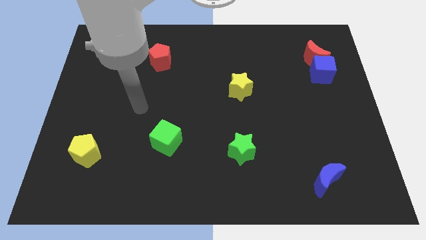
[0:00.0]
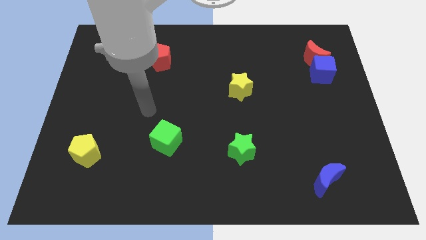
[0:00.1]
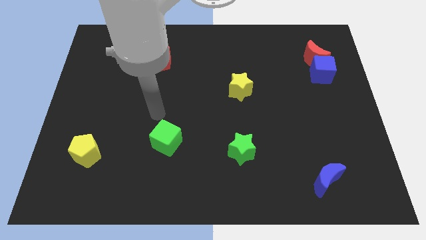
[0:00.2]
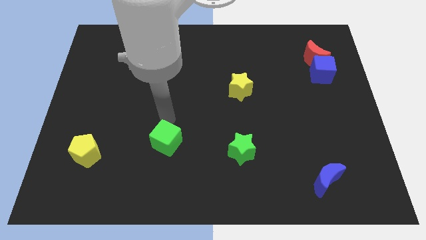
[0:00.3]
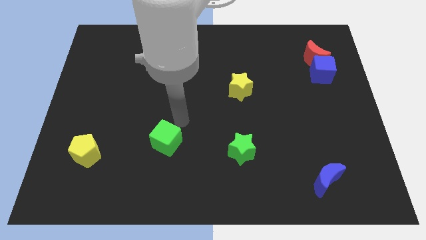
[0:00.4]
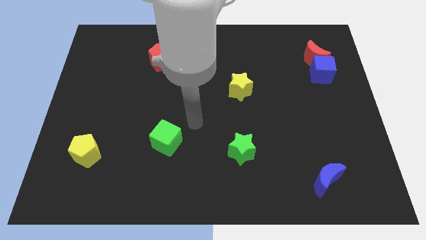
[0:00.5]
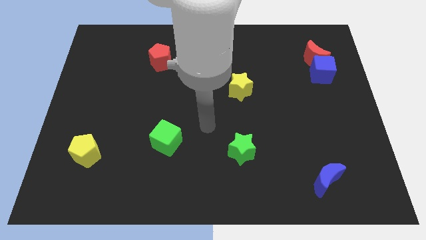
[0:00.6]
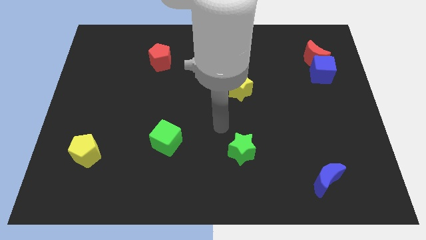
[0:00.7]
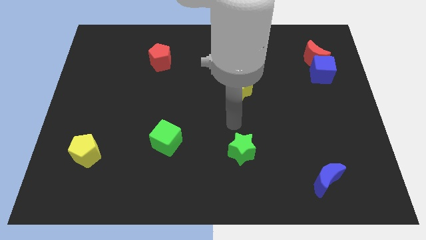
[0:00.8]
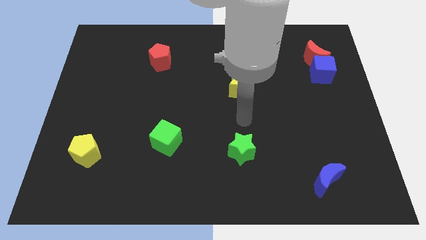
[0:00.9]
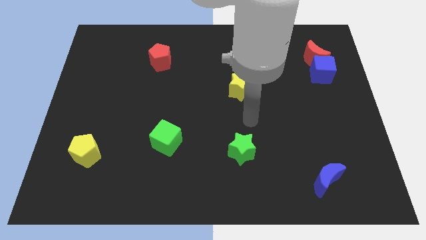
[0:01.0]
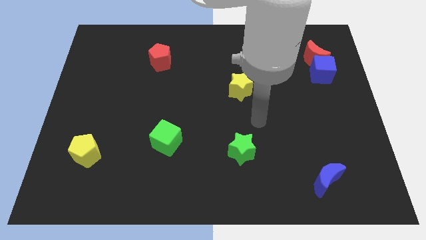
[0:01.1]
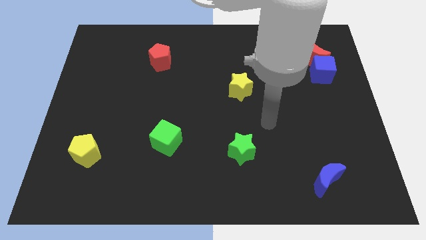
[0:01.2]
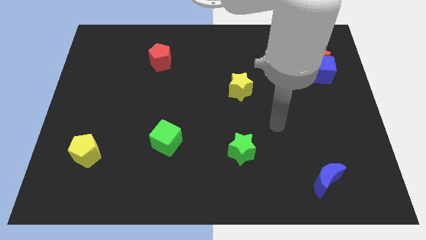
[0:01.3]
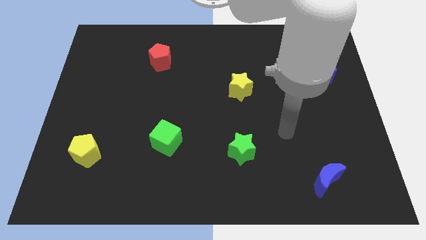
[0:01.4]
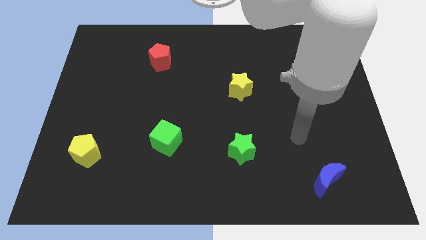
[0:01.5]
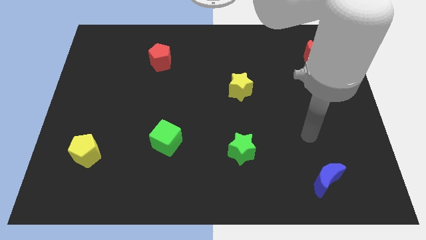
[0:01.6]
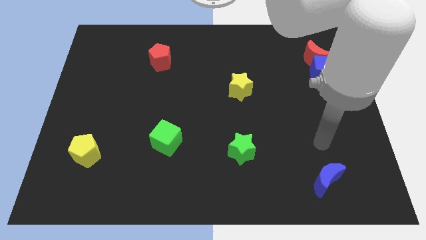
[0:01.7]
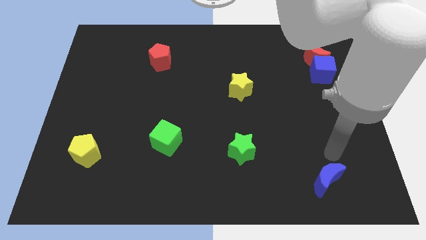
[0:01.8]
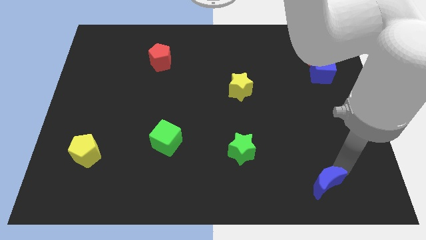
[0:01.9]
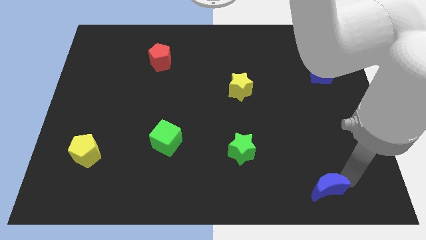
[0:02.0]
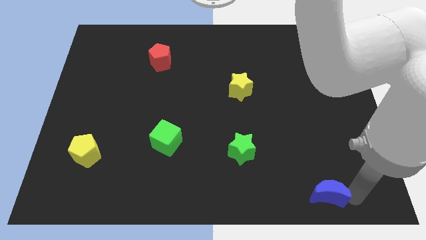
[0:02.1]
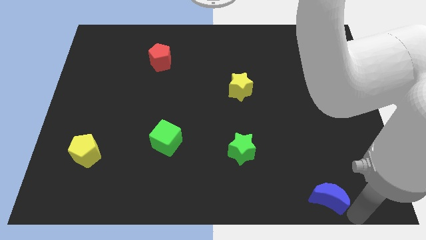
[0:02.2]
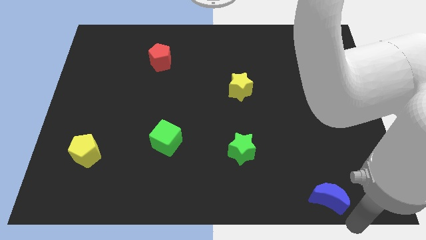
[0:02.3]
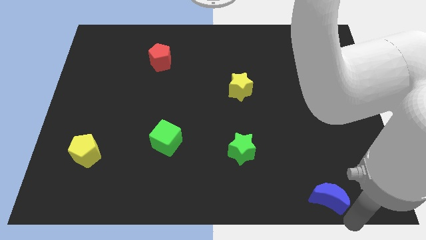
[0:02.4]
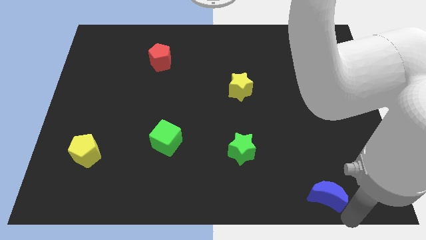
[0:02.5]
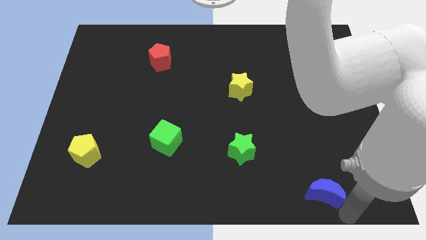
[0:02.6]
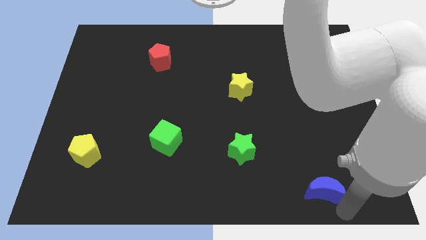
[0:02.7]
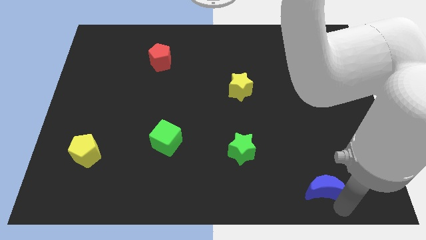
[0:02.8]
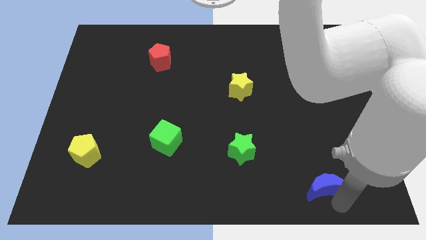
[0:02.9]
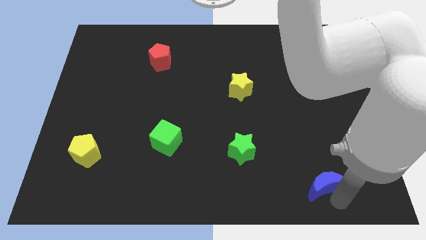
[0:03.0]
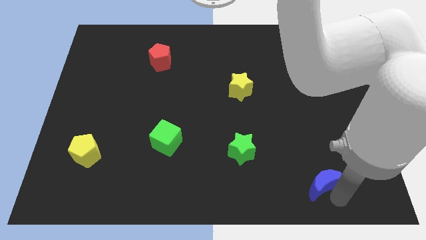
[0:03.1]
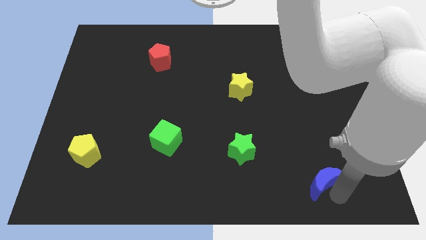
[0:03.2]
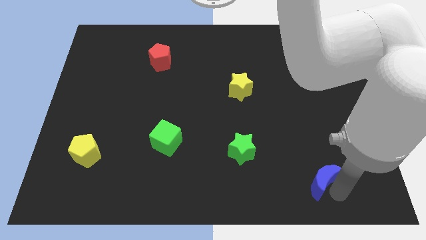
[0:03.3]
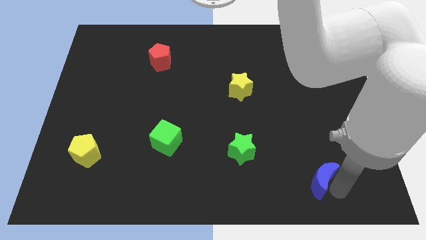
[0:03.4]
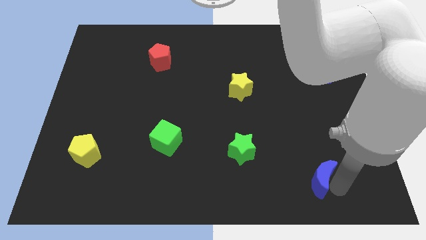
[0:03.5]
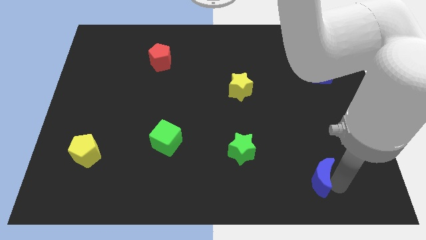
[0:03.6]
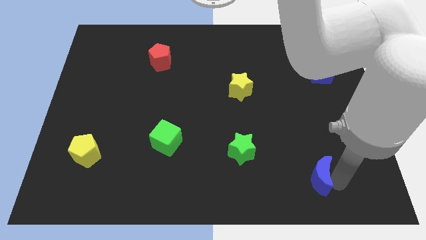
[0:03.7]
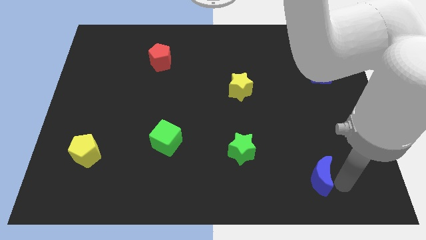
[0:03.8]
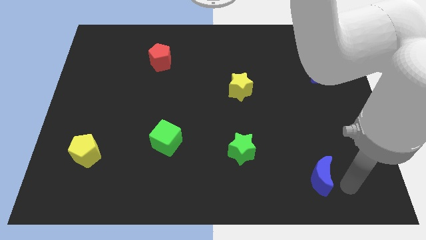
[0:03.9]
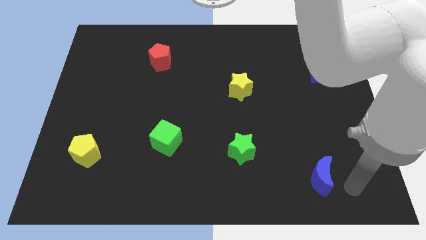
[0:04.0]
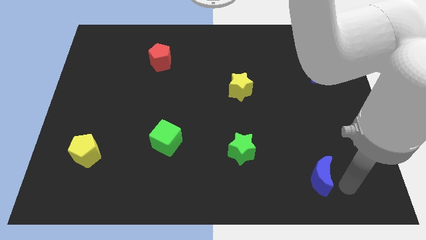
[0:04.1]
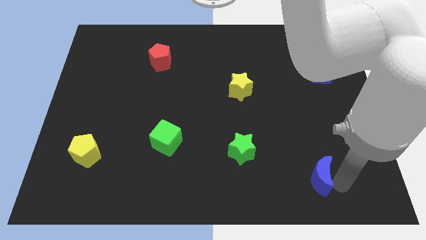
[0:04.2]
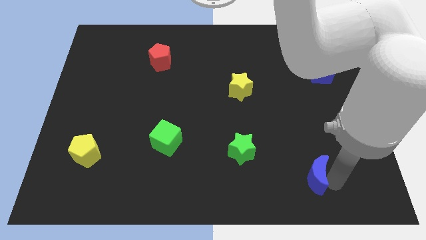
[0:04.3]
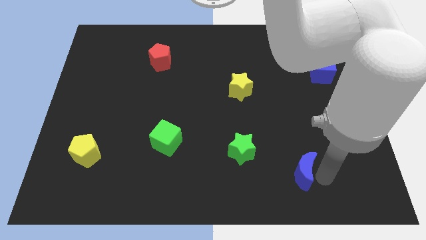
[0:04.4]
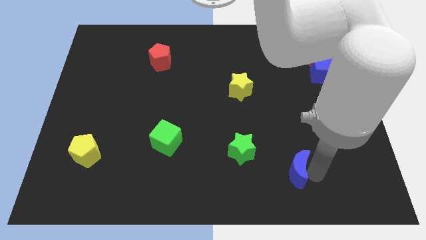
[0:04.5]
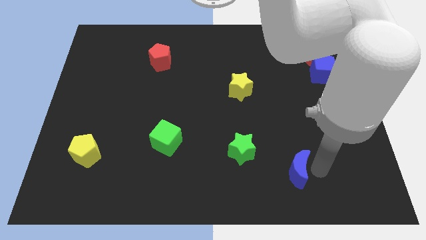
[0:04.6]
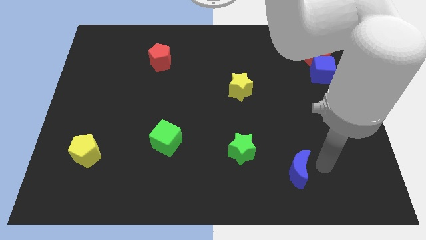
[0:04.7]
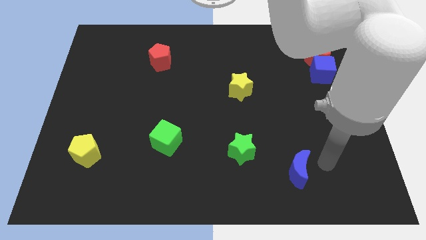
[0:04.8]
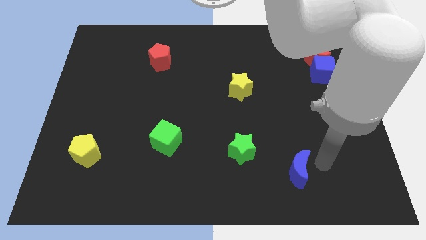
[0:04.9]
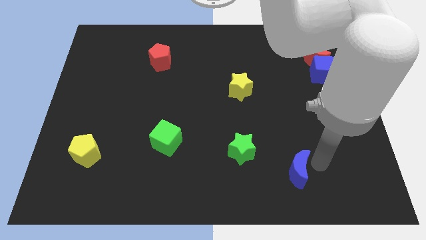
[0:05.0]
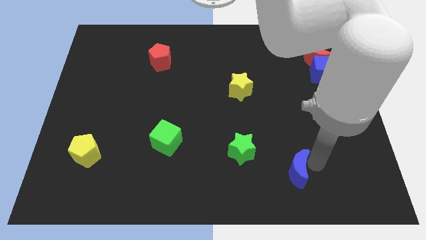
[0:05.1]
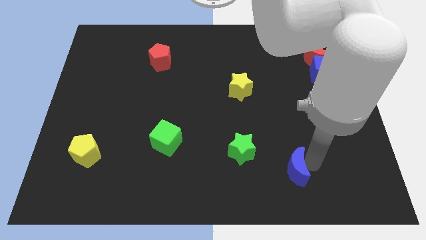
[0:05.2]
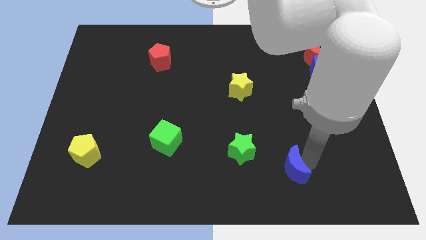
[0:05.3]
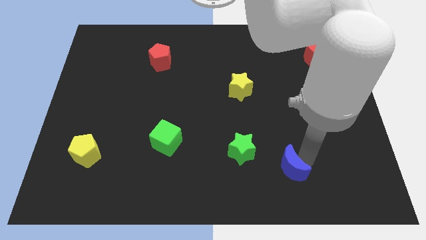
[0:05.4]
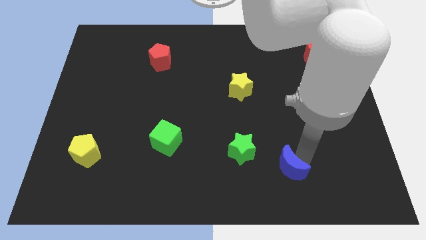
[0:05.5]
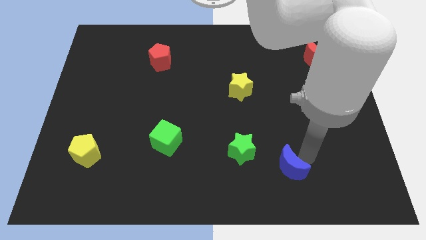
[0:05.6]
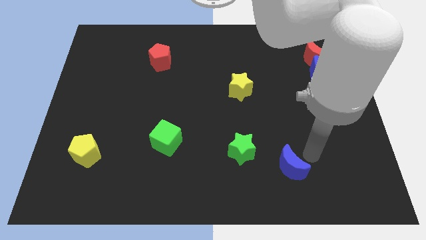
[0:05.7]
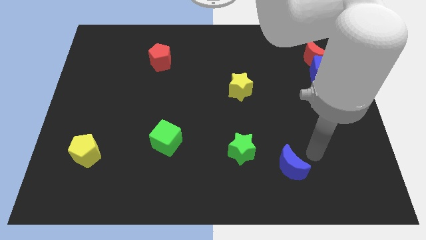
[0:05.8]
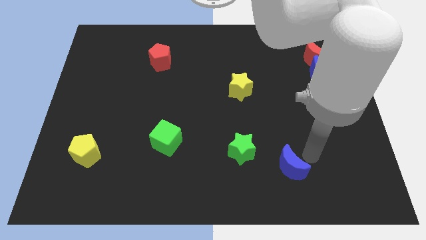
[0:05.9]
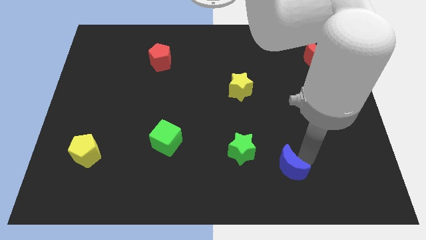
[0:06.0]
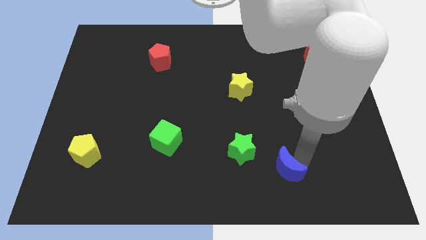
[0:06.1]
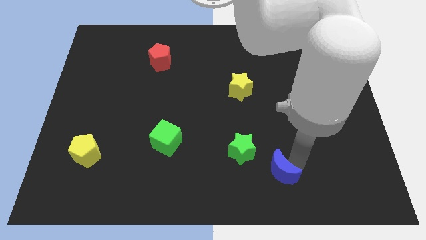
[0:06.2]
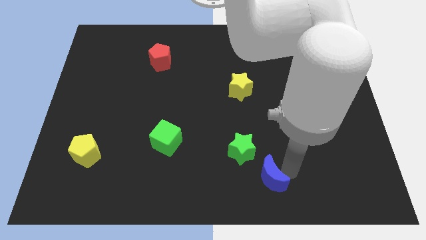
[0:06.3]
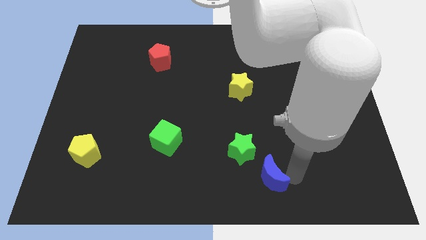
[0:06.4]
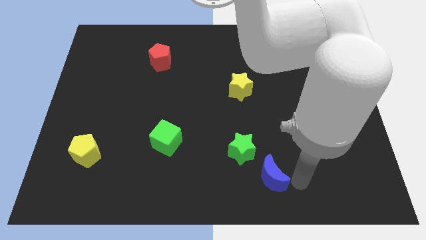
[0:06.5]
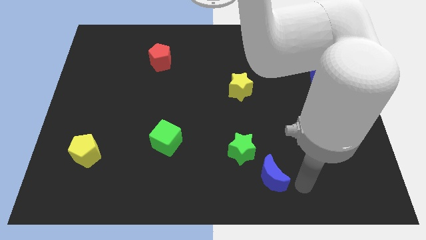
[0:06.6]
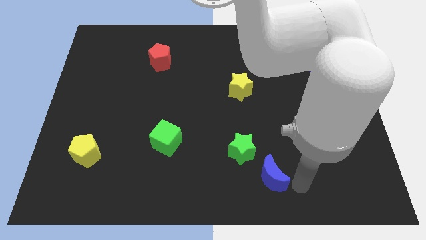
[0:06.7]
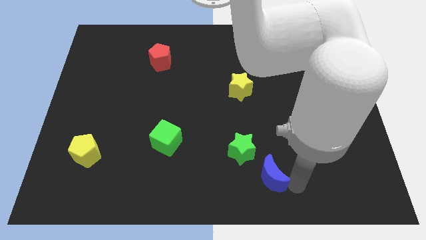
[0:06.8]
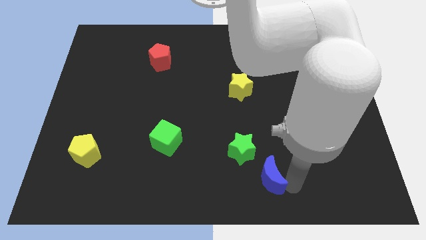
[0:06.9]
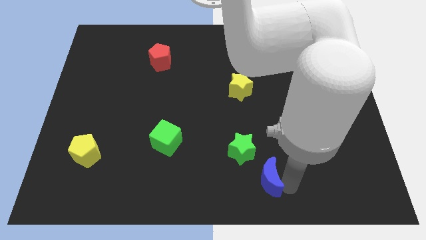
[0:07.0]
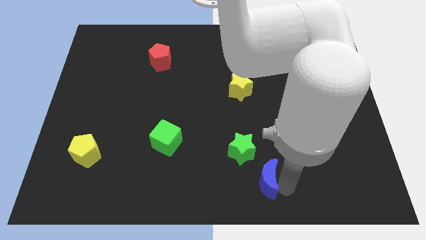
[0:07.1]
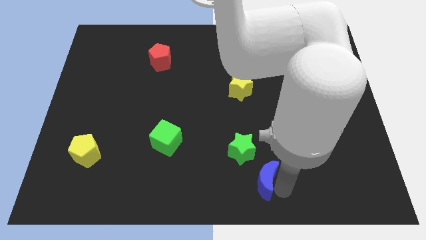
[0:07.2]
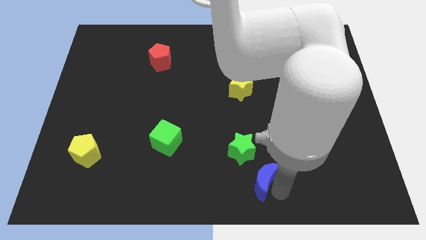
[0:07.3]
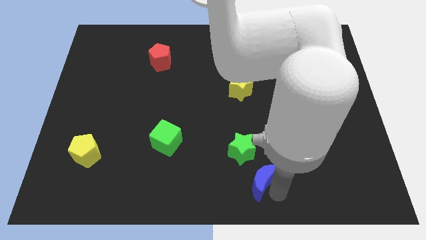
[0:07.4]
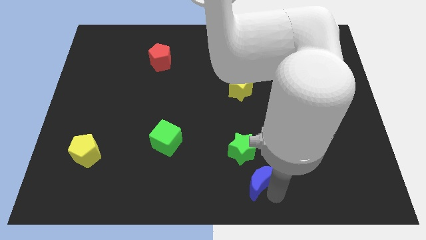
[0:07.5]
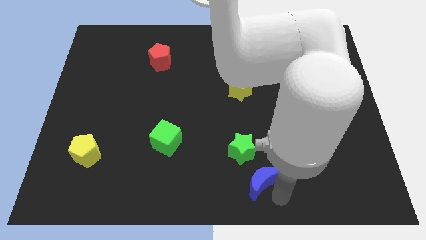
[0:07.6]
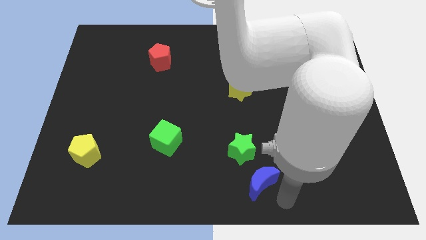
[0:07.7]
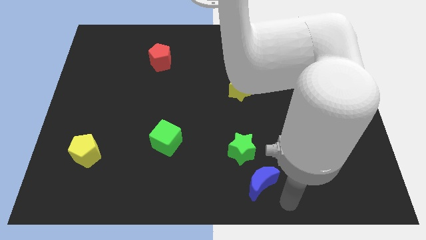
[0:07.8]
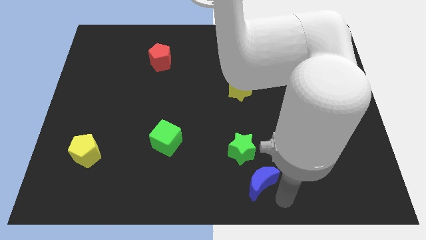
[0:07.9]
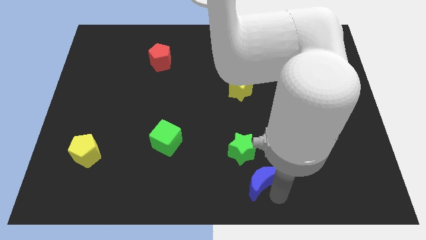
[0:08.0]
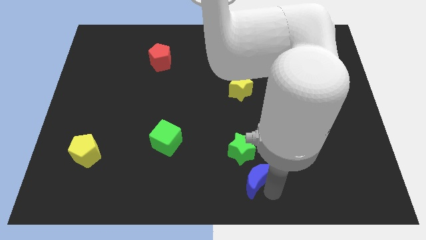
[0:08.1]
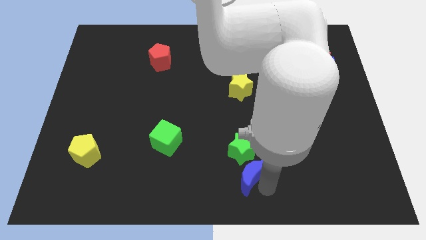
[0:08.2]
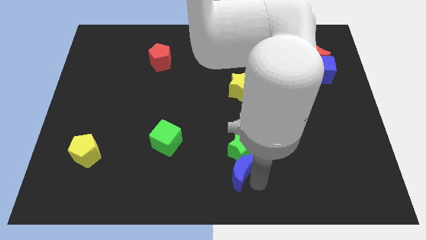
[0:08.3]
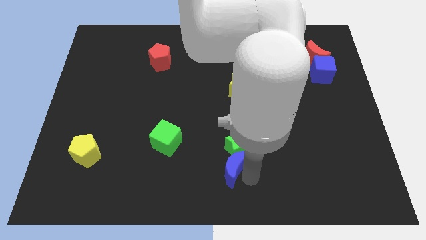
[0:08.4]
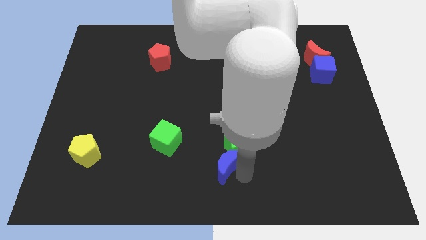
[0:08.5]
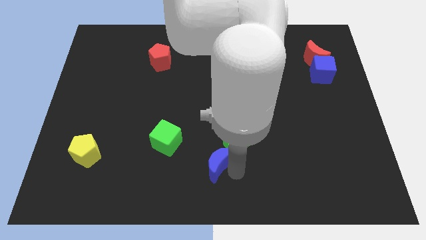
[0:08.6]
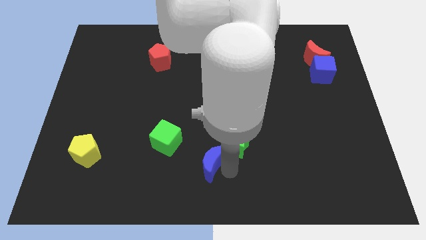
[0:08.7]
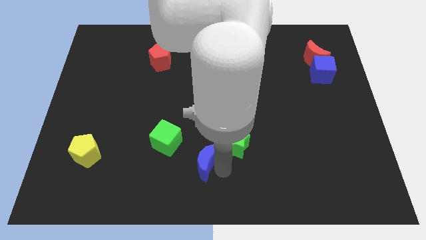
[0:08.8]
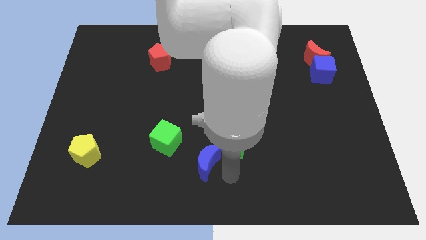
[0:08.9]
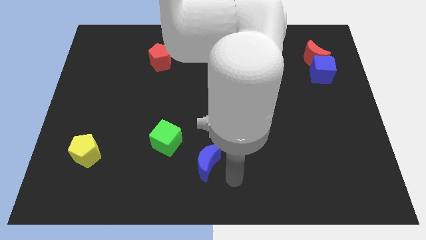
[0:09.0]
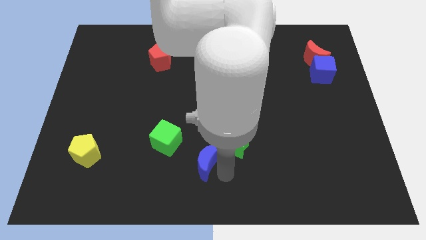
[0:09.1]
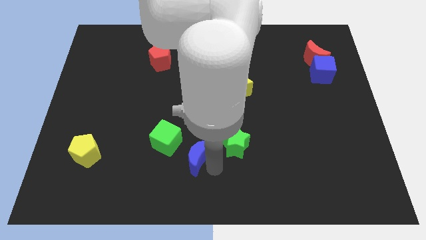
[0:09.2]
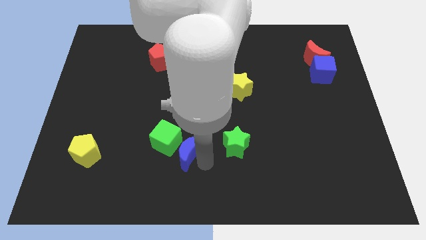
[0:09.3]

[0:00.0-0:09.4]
push the blue moon to the green cube
